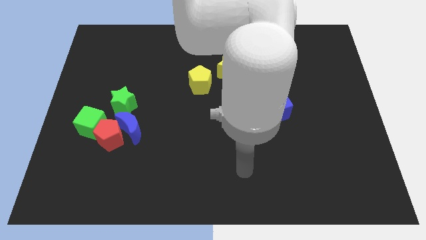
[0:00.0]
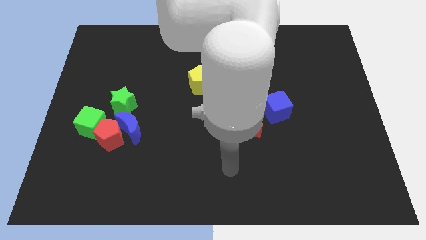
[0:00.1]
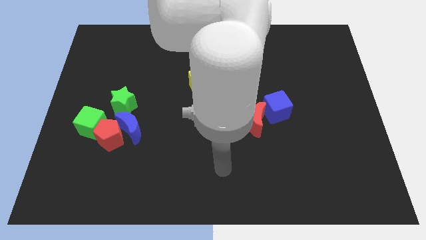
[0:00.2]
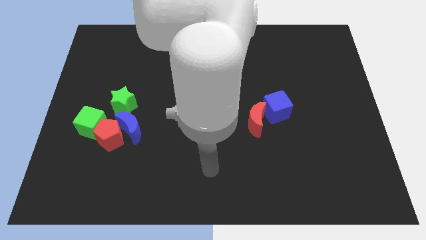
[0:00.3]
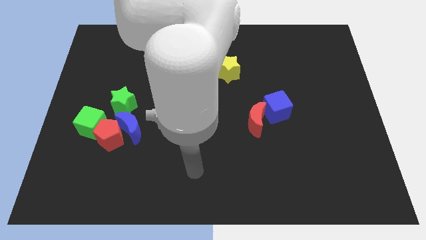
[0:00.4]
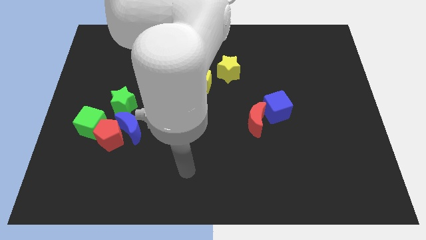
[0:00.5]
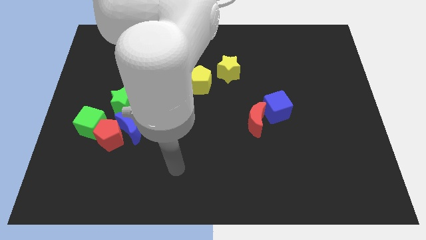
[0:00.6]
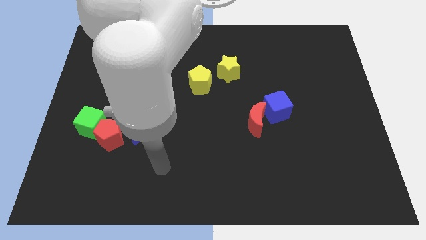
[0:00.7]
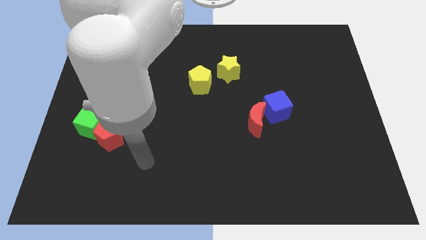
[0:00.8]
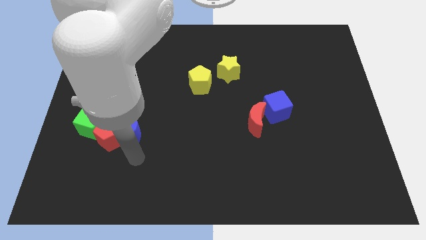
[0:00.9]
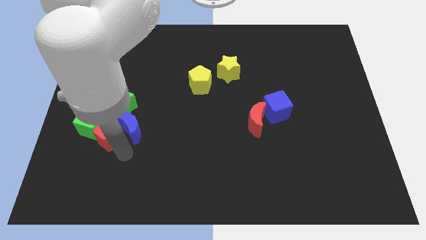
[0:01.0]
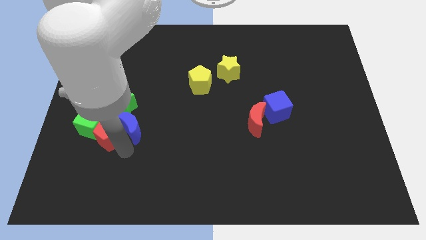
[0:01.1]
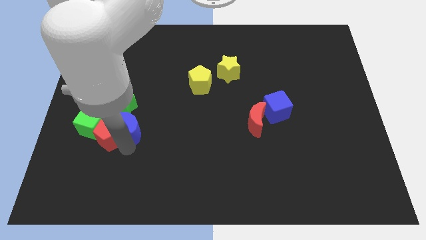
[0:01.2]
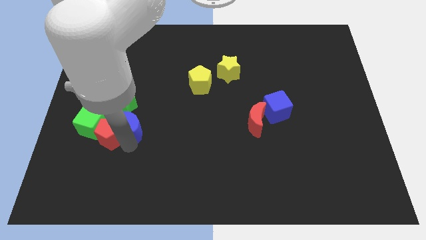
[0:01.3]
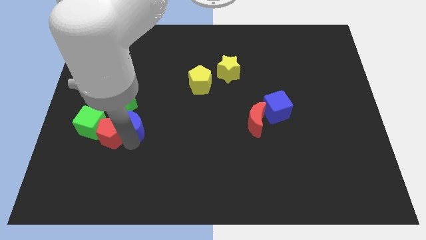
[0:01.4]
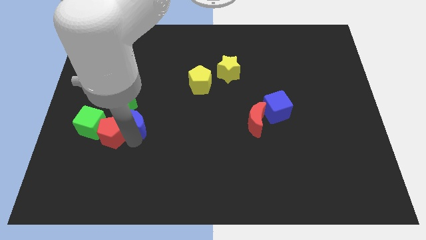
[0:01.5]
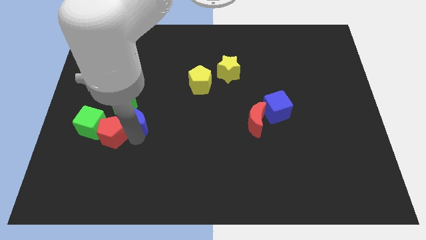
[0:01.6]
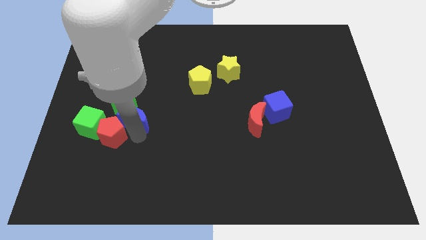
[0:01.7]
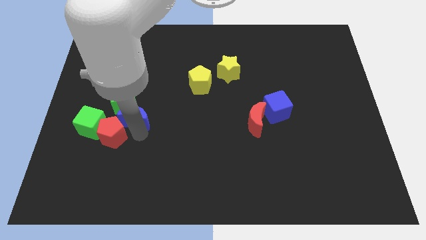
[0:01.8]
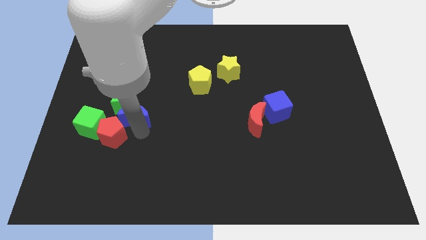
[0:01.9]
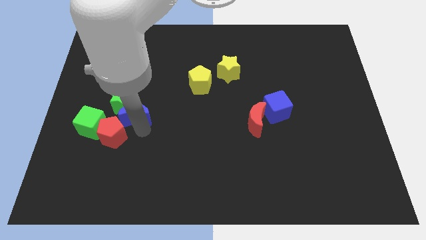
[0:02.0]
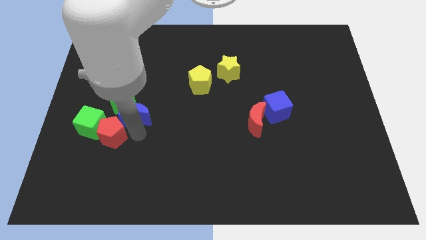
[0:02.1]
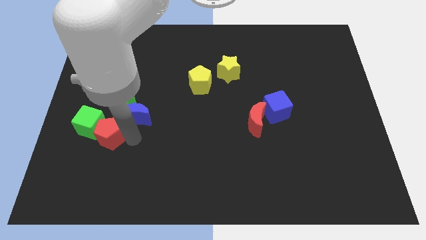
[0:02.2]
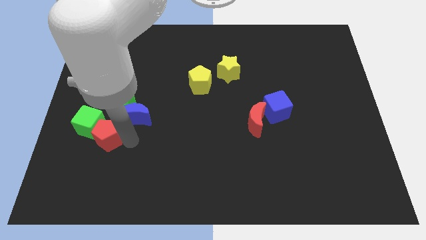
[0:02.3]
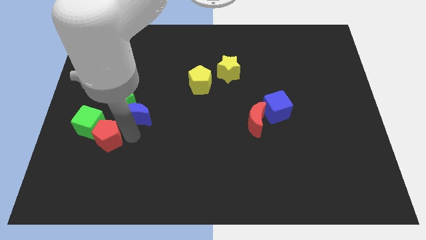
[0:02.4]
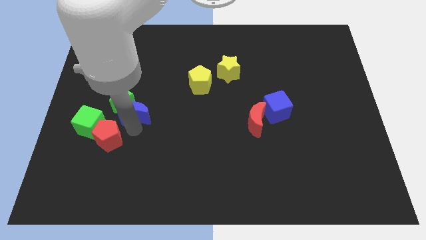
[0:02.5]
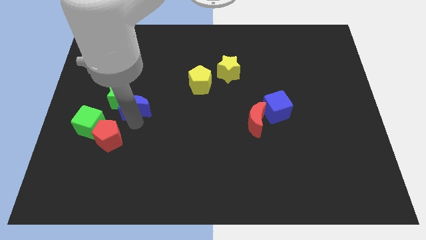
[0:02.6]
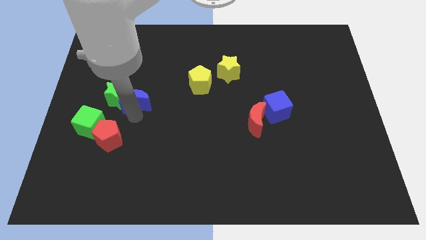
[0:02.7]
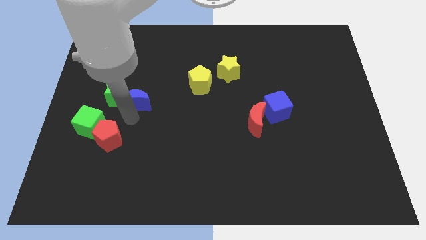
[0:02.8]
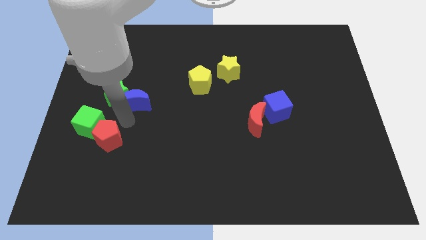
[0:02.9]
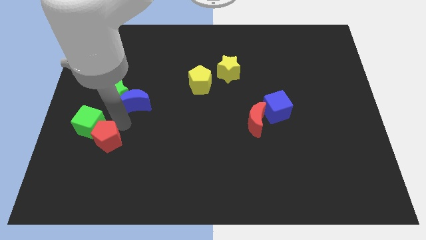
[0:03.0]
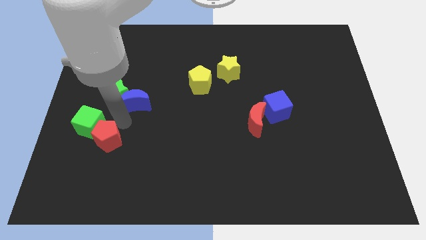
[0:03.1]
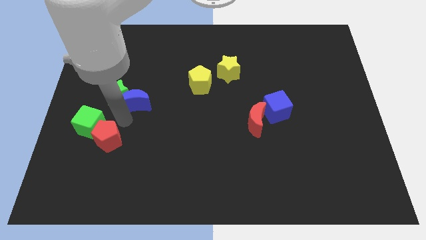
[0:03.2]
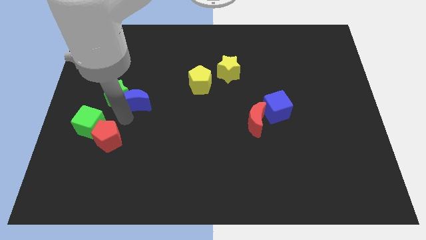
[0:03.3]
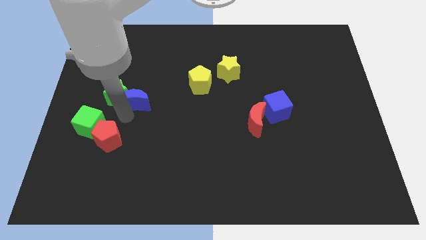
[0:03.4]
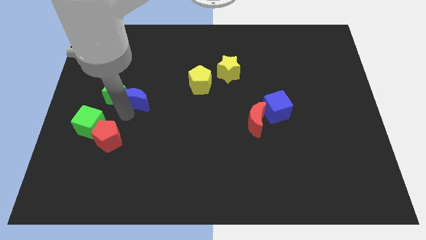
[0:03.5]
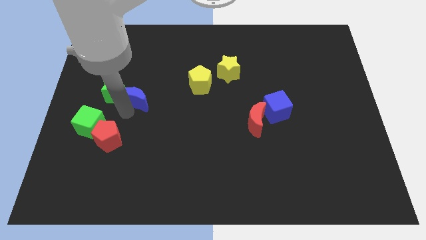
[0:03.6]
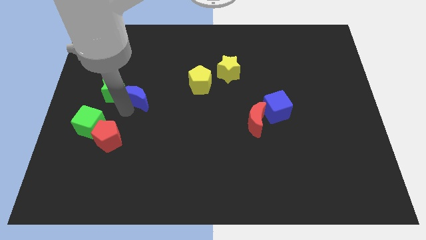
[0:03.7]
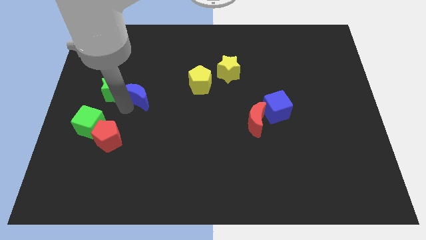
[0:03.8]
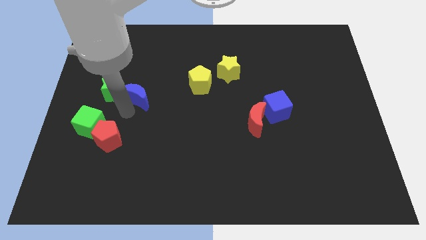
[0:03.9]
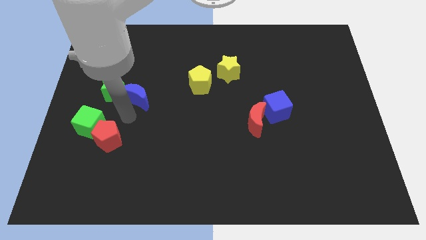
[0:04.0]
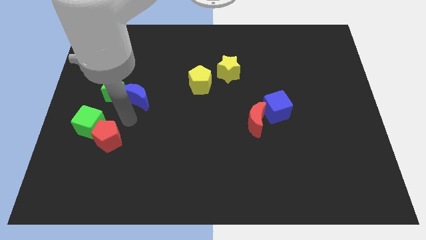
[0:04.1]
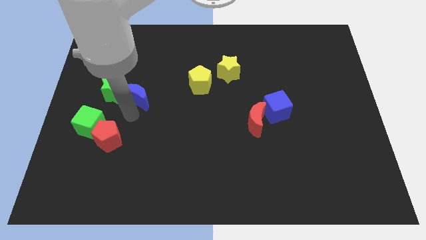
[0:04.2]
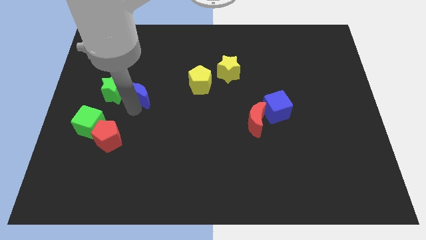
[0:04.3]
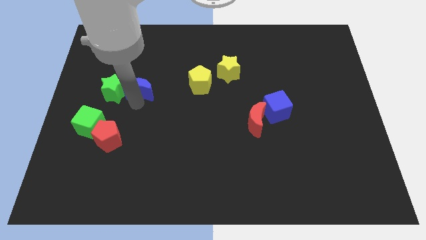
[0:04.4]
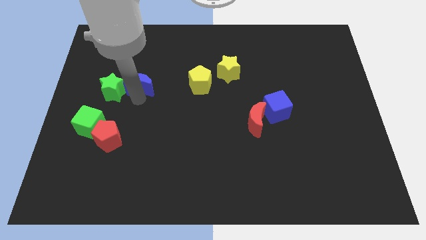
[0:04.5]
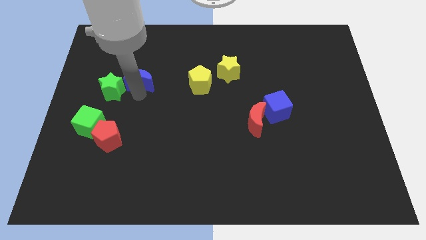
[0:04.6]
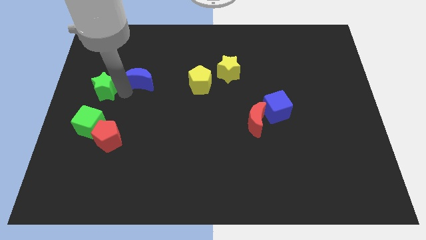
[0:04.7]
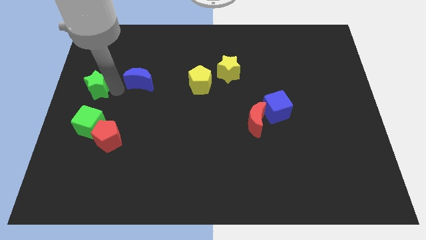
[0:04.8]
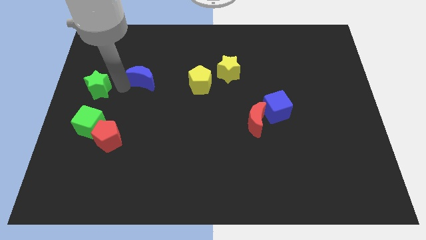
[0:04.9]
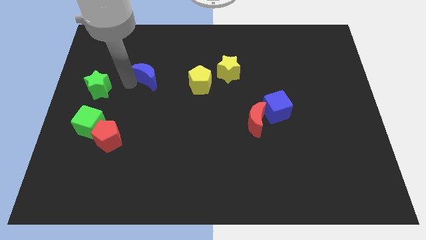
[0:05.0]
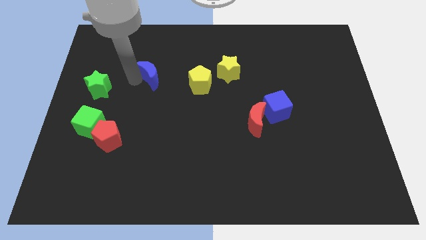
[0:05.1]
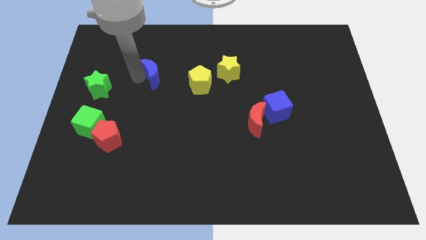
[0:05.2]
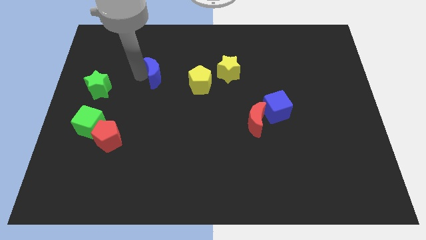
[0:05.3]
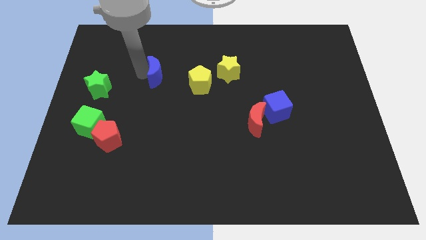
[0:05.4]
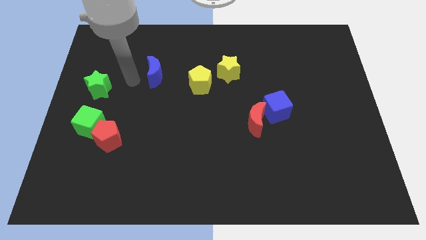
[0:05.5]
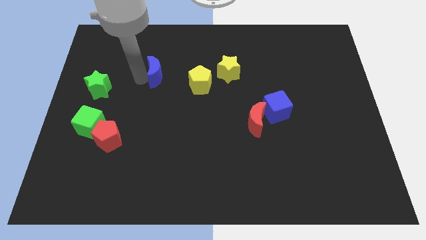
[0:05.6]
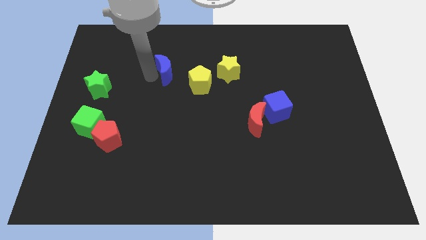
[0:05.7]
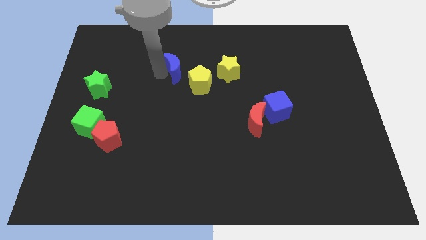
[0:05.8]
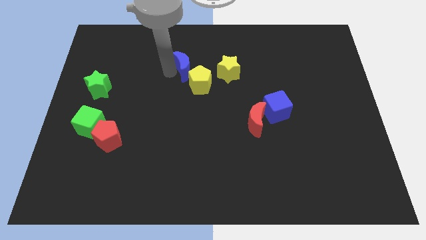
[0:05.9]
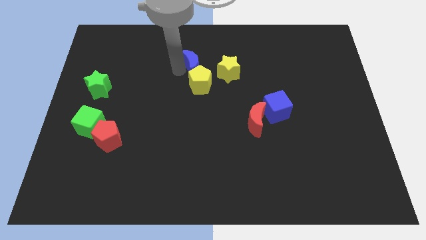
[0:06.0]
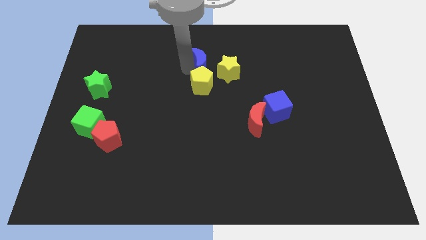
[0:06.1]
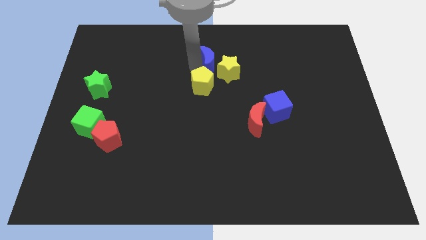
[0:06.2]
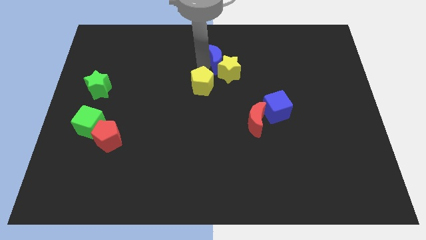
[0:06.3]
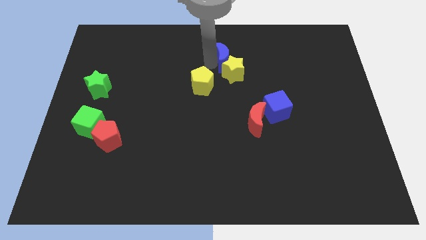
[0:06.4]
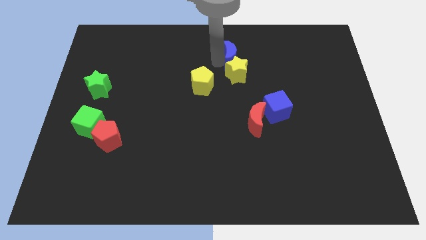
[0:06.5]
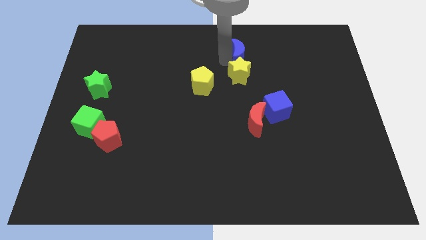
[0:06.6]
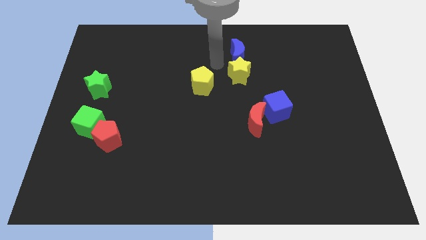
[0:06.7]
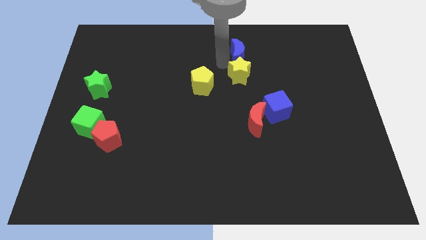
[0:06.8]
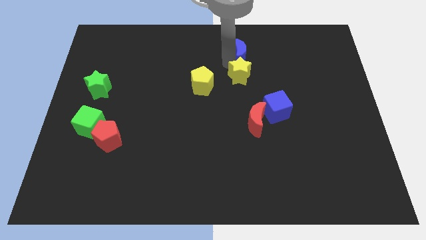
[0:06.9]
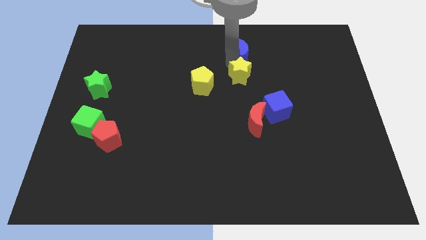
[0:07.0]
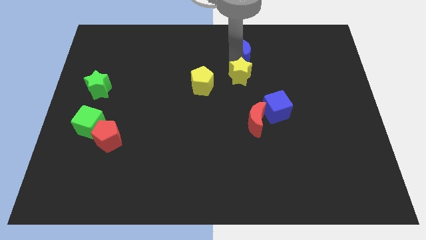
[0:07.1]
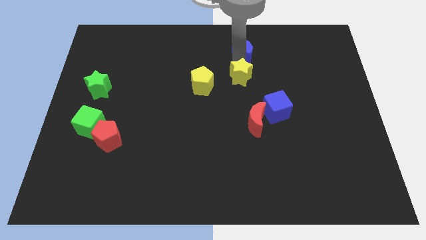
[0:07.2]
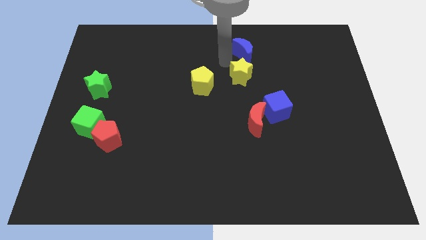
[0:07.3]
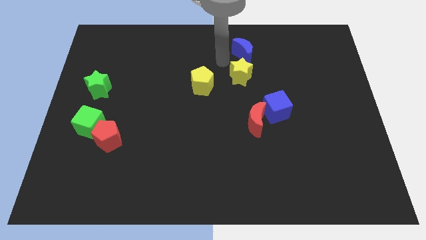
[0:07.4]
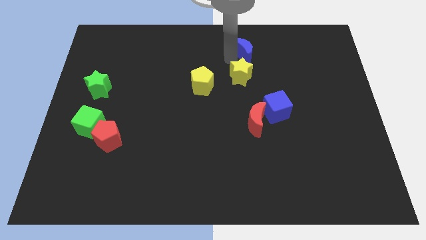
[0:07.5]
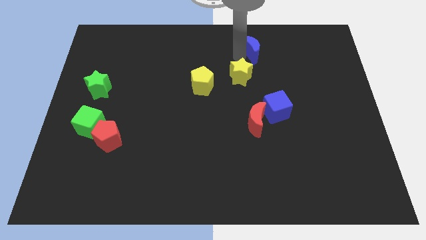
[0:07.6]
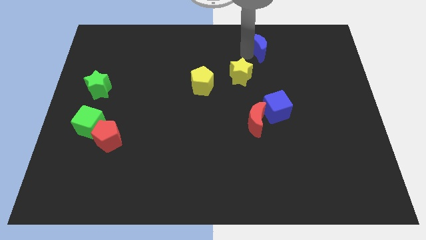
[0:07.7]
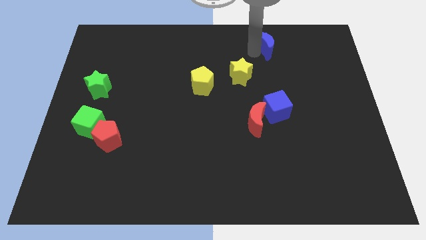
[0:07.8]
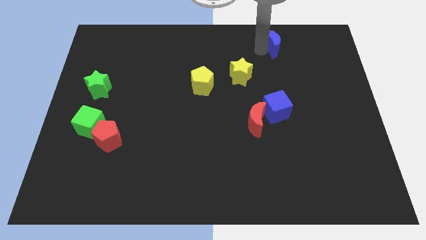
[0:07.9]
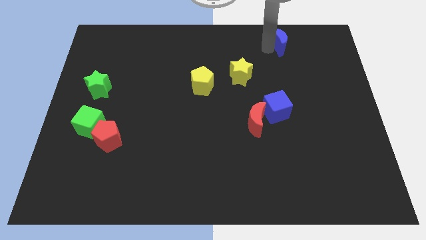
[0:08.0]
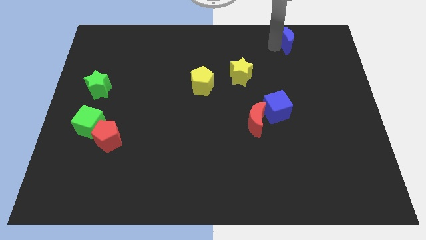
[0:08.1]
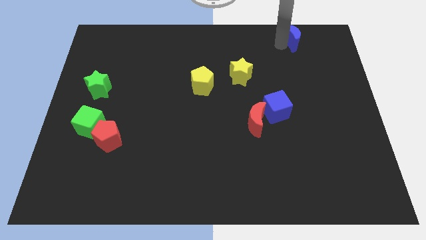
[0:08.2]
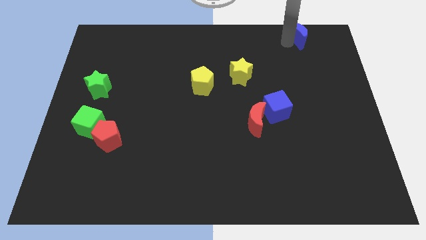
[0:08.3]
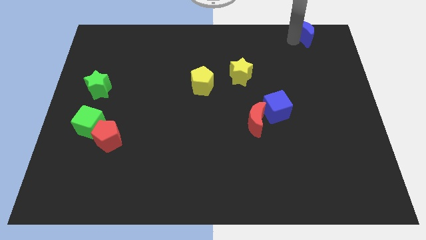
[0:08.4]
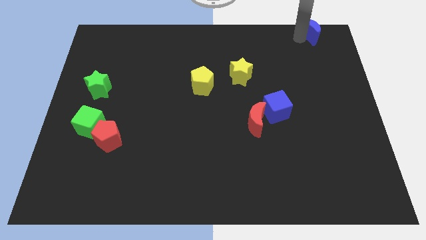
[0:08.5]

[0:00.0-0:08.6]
slide the blue moon to the top right corner
